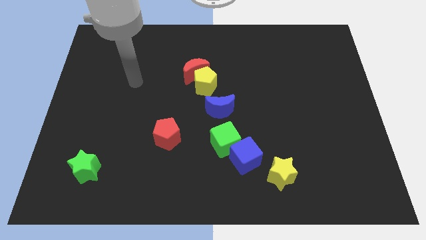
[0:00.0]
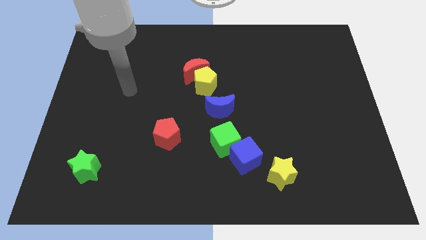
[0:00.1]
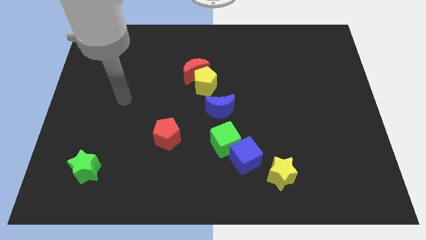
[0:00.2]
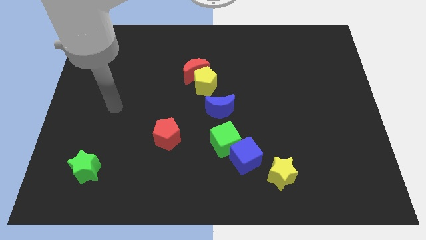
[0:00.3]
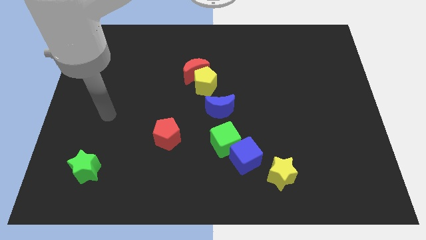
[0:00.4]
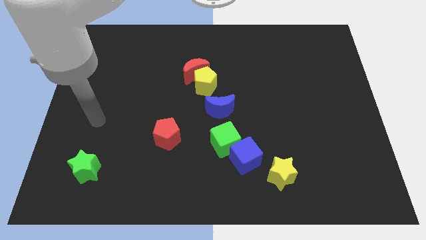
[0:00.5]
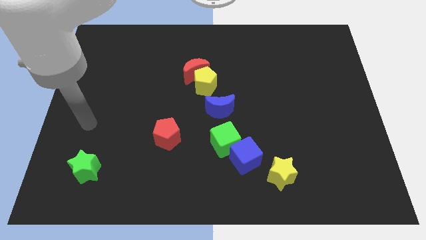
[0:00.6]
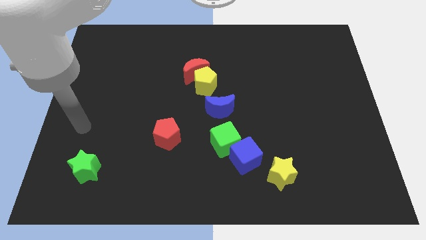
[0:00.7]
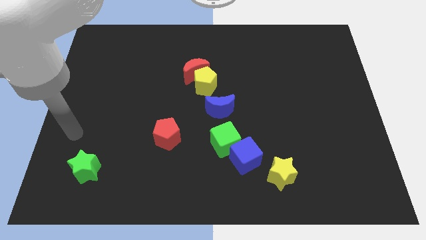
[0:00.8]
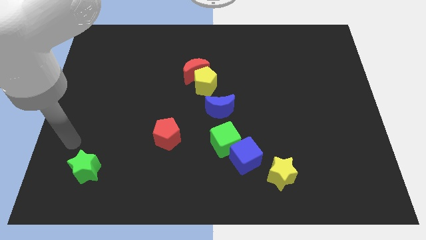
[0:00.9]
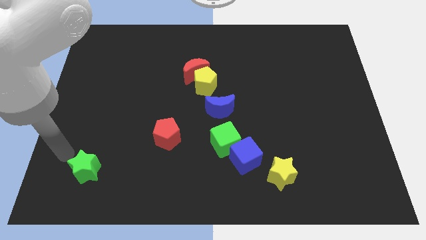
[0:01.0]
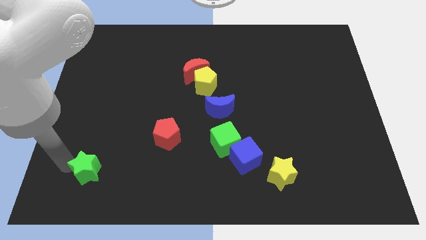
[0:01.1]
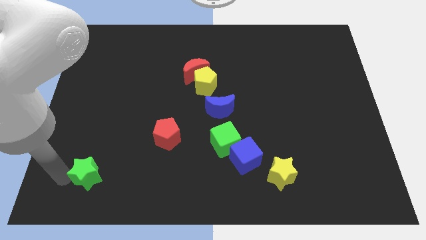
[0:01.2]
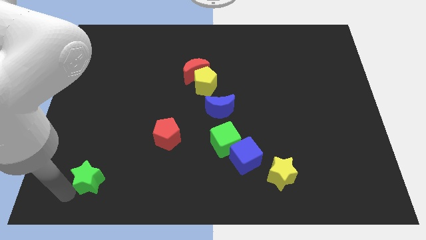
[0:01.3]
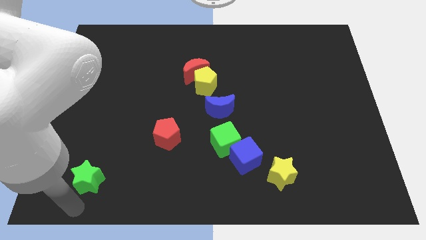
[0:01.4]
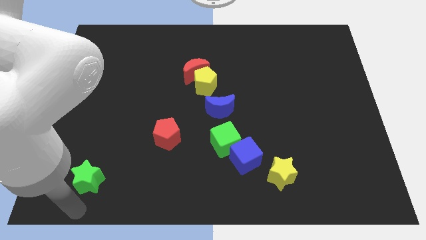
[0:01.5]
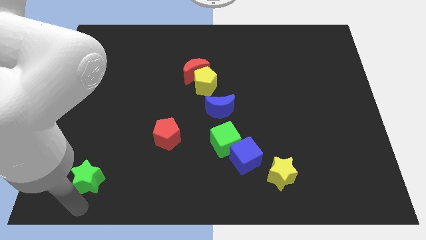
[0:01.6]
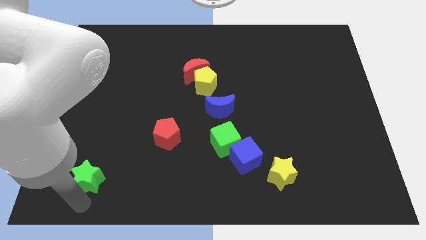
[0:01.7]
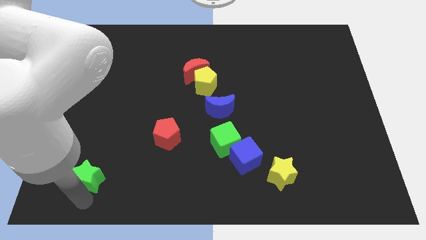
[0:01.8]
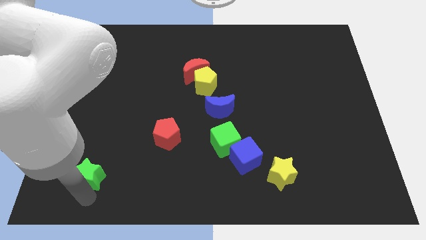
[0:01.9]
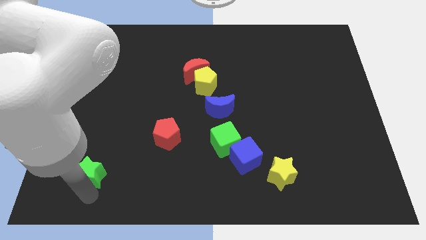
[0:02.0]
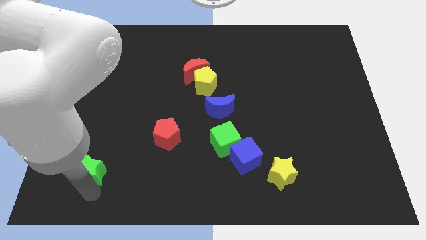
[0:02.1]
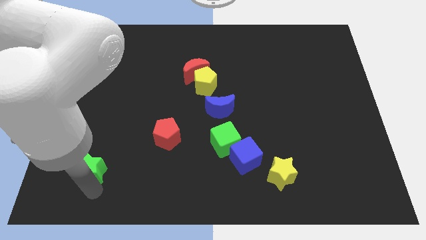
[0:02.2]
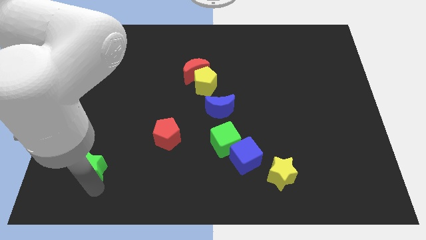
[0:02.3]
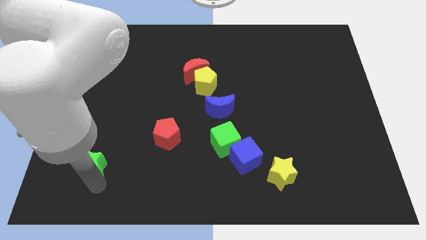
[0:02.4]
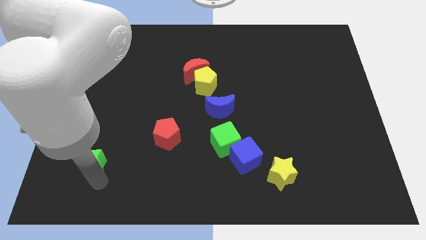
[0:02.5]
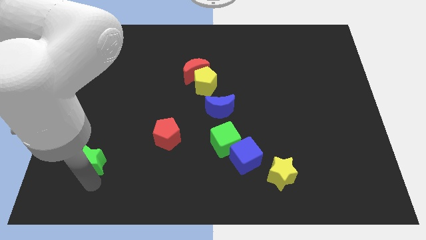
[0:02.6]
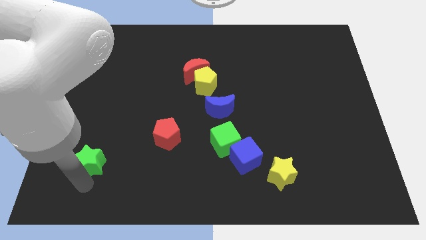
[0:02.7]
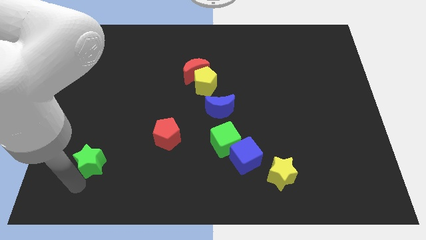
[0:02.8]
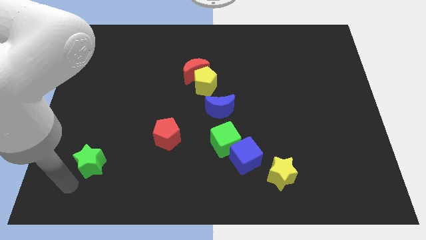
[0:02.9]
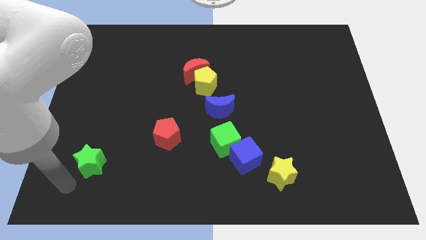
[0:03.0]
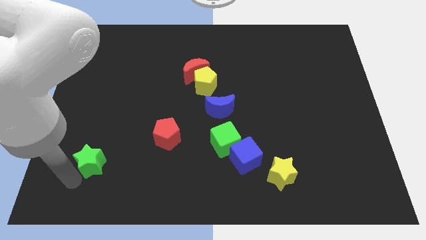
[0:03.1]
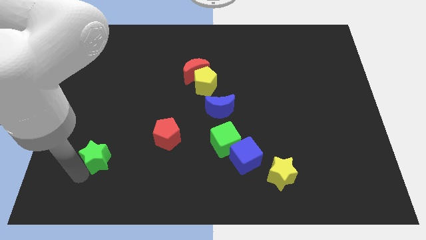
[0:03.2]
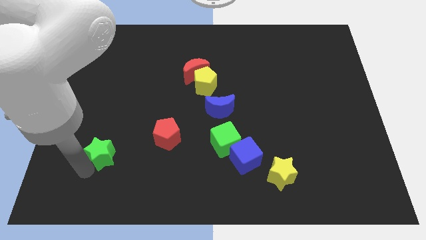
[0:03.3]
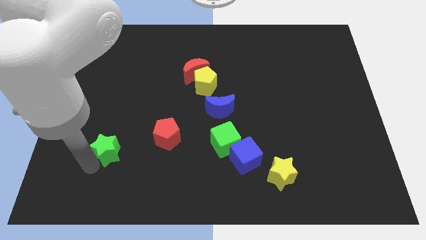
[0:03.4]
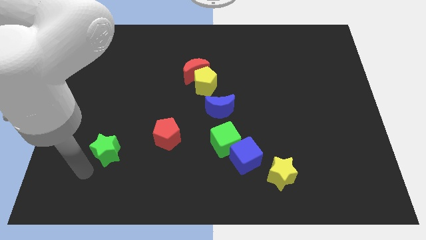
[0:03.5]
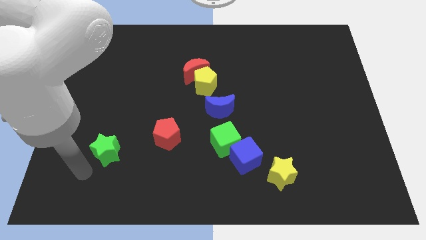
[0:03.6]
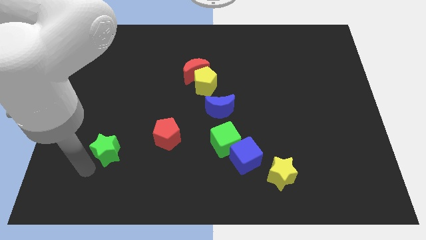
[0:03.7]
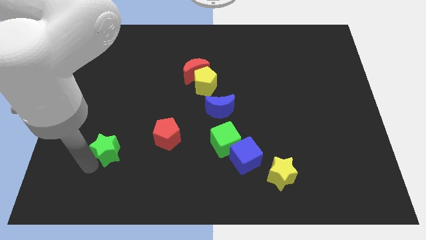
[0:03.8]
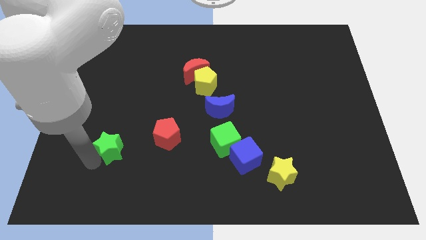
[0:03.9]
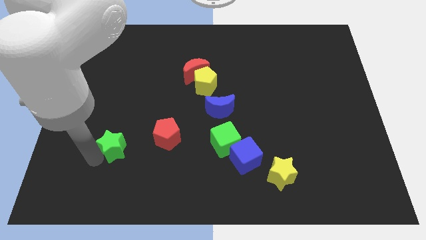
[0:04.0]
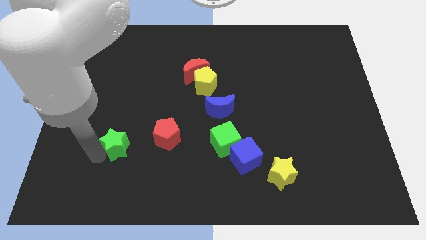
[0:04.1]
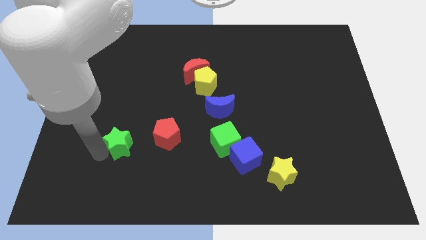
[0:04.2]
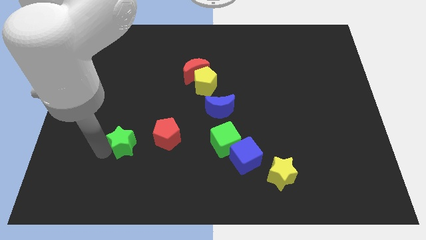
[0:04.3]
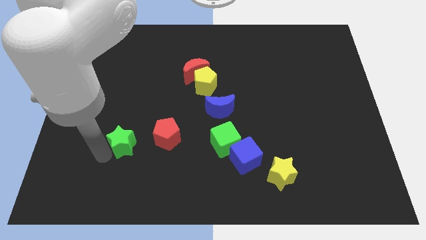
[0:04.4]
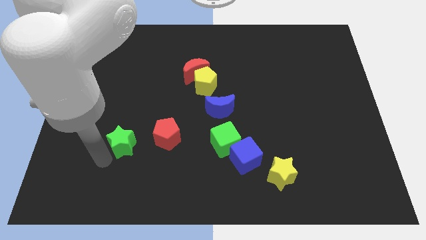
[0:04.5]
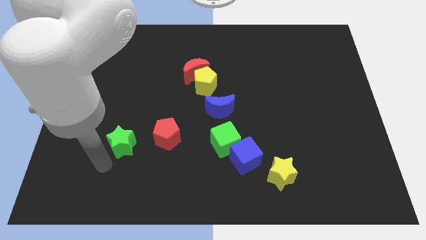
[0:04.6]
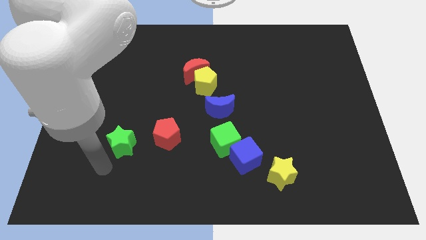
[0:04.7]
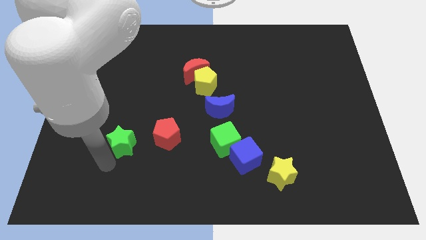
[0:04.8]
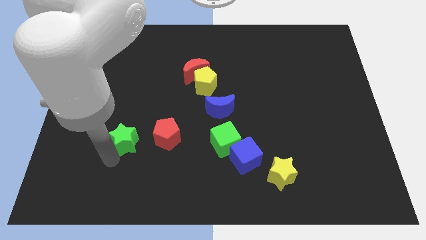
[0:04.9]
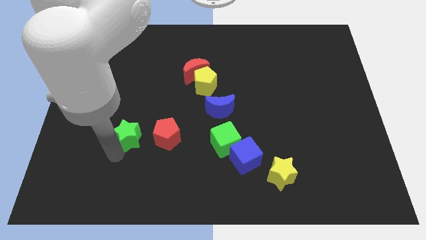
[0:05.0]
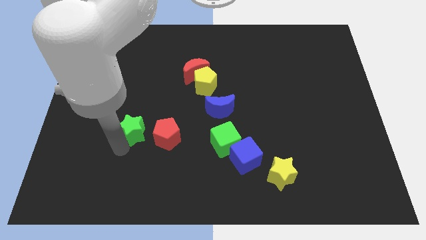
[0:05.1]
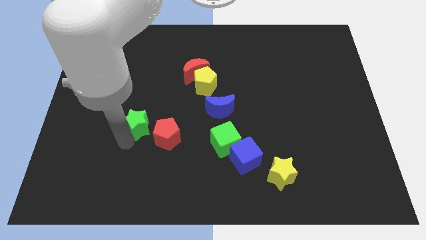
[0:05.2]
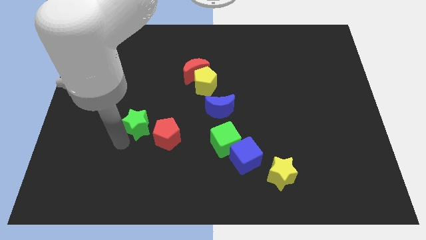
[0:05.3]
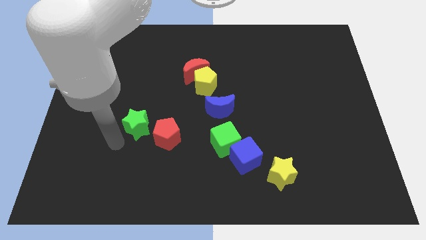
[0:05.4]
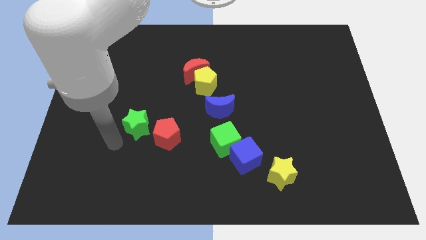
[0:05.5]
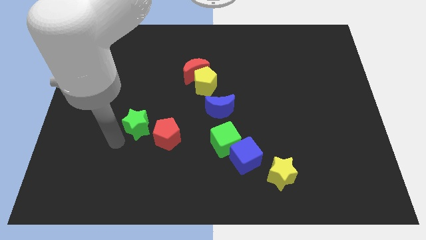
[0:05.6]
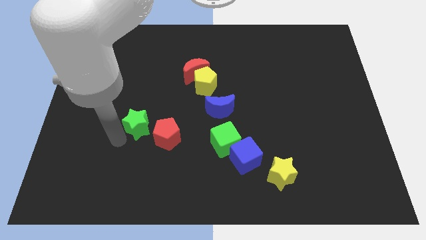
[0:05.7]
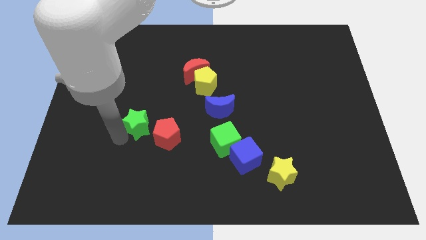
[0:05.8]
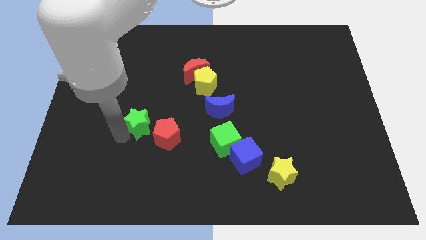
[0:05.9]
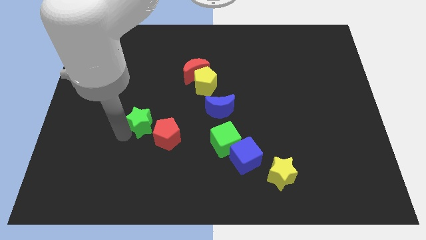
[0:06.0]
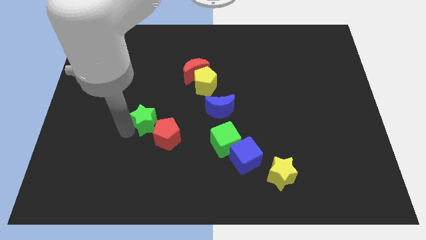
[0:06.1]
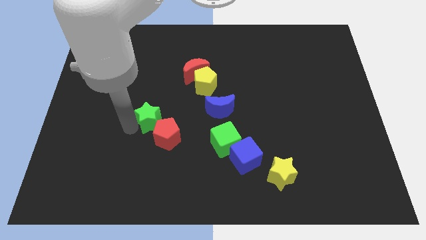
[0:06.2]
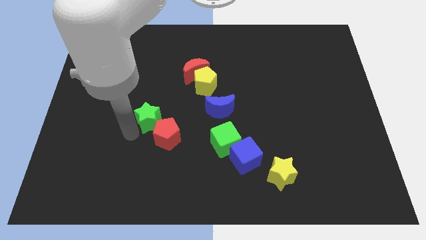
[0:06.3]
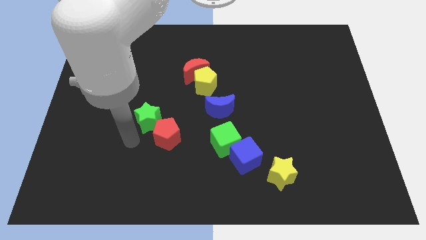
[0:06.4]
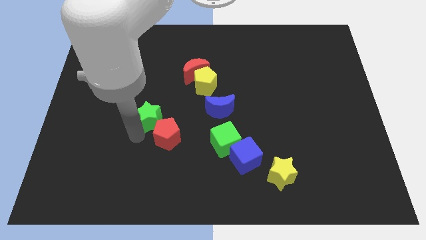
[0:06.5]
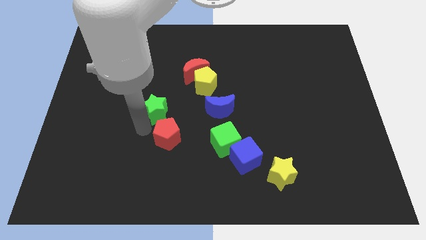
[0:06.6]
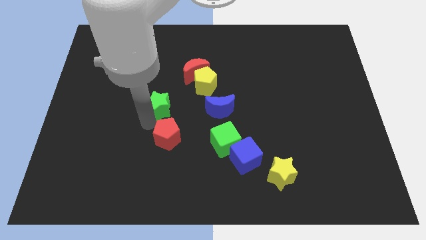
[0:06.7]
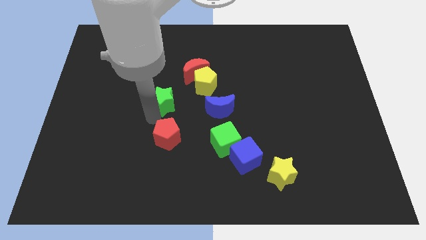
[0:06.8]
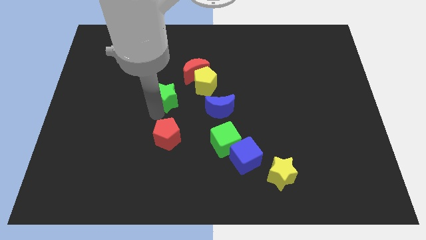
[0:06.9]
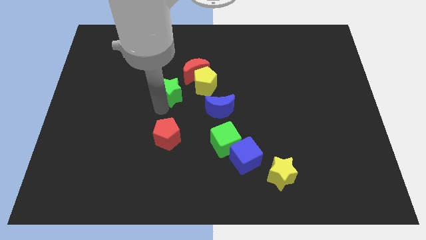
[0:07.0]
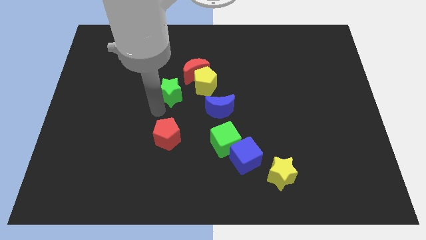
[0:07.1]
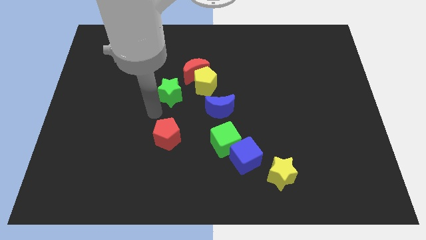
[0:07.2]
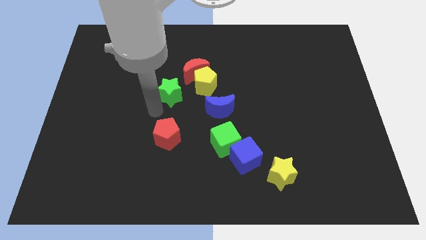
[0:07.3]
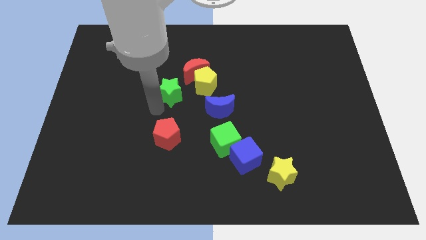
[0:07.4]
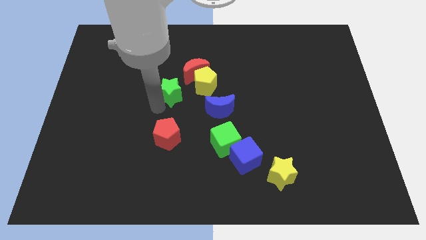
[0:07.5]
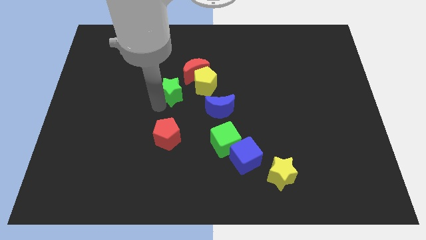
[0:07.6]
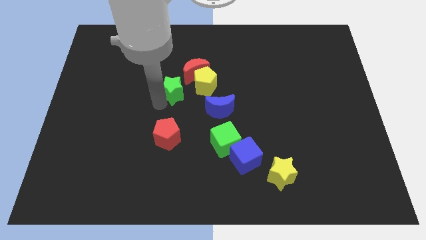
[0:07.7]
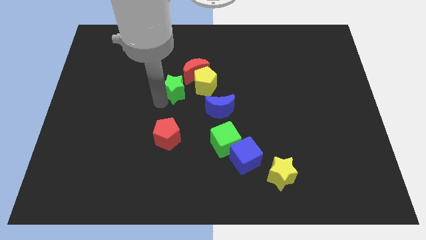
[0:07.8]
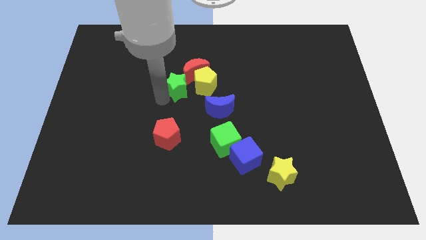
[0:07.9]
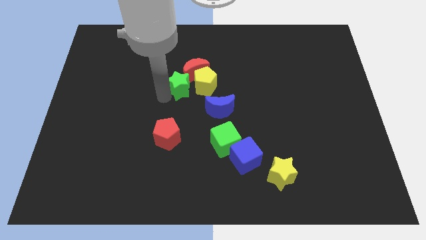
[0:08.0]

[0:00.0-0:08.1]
slide the green star towards the red moon
